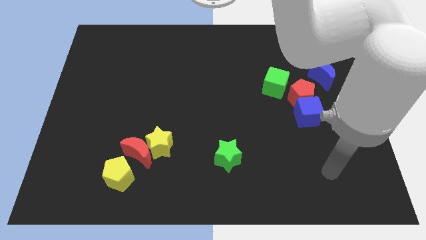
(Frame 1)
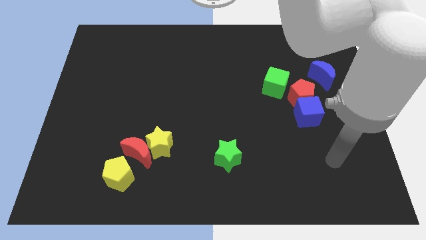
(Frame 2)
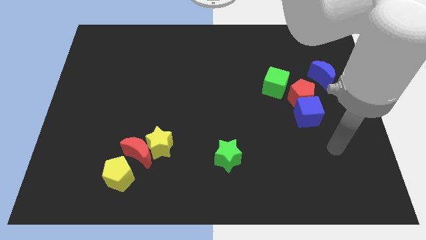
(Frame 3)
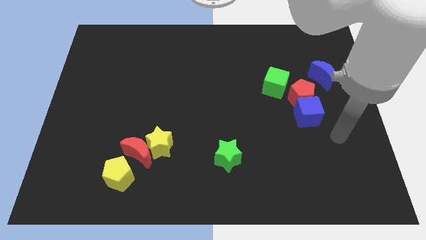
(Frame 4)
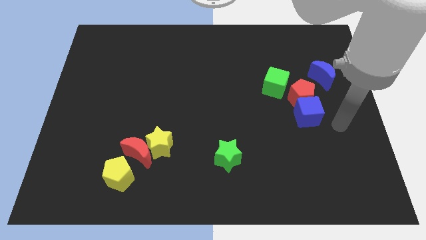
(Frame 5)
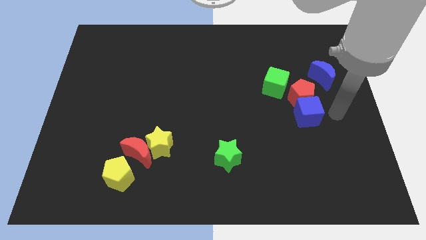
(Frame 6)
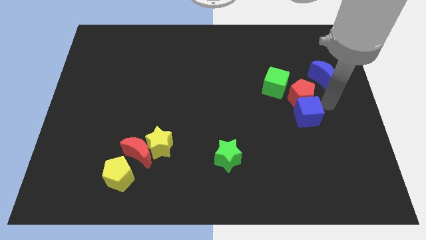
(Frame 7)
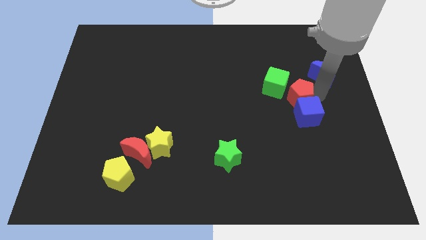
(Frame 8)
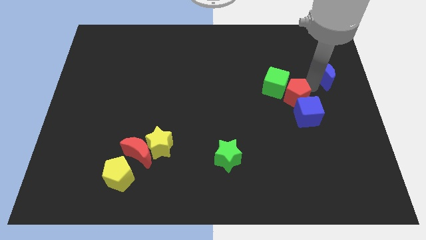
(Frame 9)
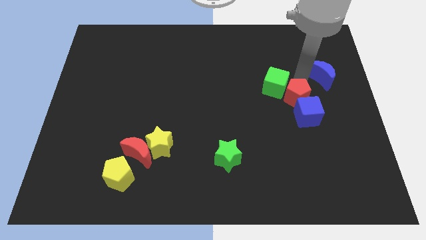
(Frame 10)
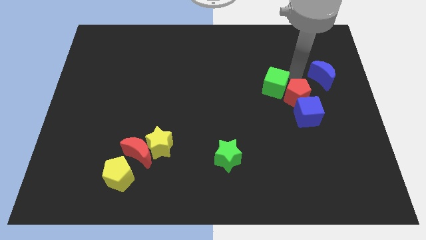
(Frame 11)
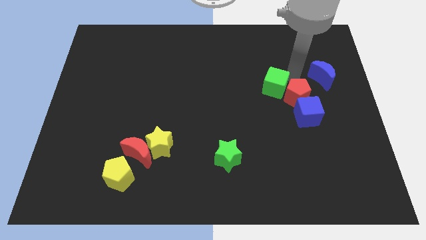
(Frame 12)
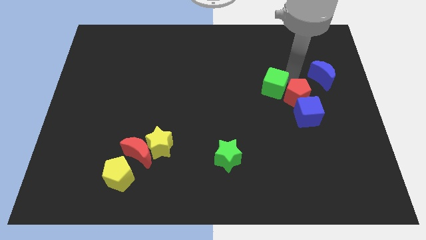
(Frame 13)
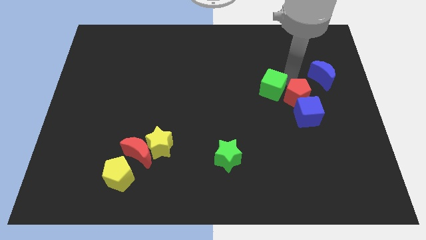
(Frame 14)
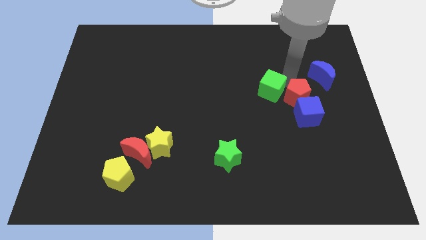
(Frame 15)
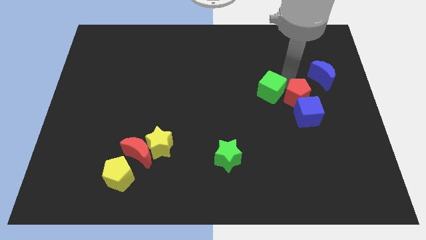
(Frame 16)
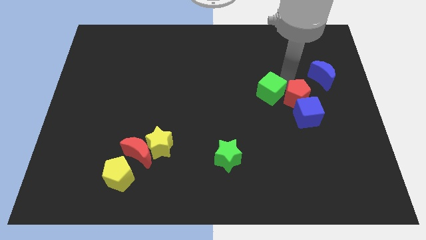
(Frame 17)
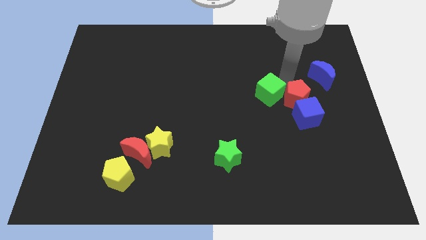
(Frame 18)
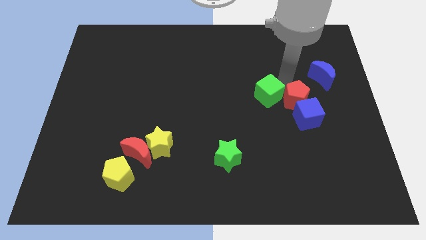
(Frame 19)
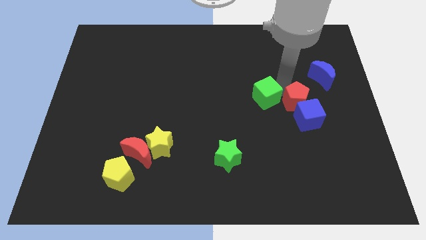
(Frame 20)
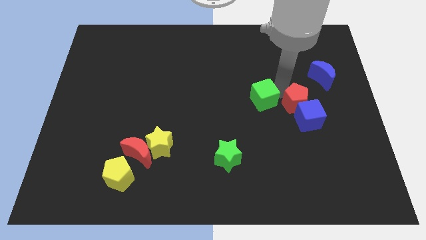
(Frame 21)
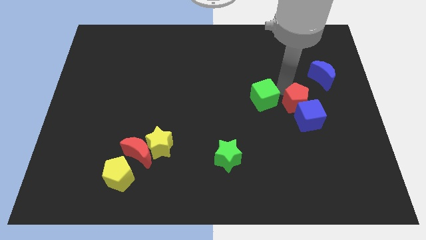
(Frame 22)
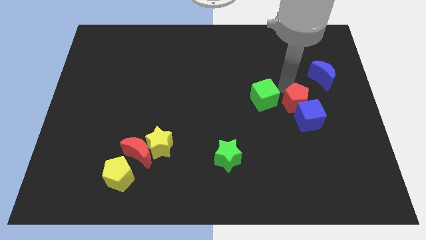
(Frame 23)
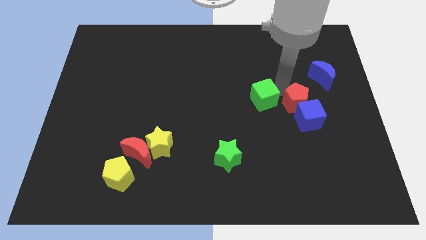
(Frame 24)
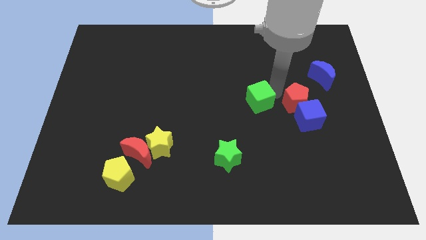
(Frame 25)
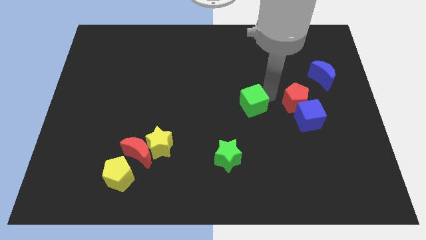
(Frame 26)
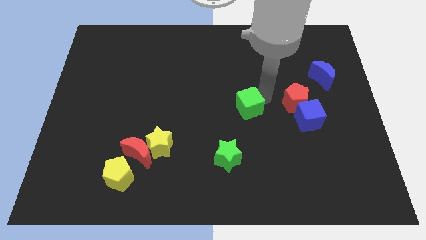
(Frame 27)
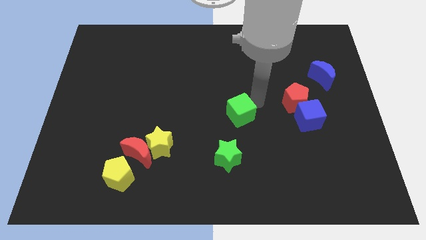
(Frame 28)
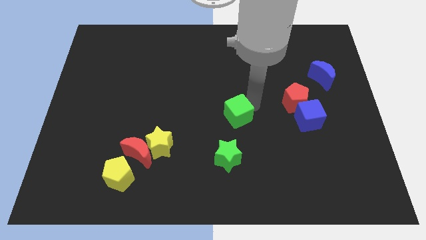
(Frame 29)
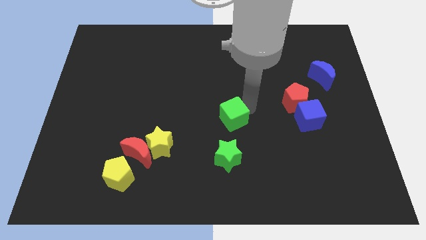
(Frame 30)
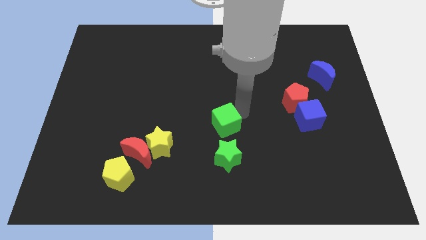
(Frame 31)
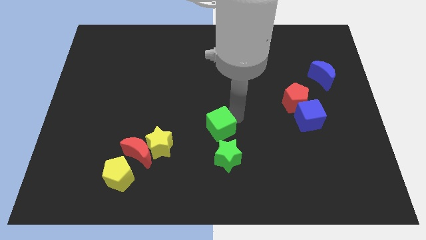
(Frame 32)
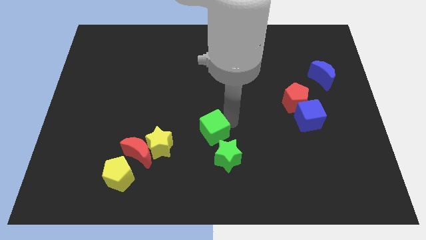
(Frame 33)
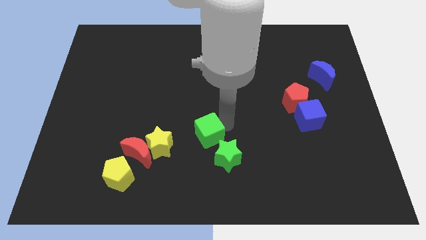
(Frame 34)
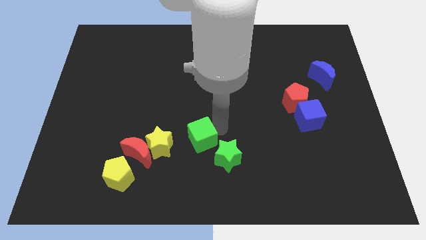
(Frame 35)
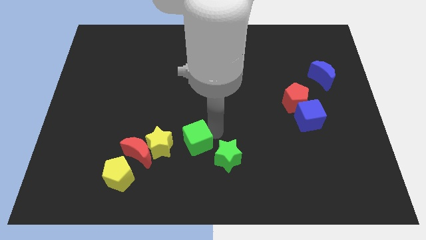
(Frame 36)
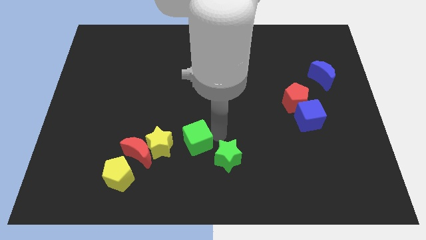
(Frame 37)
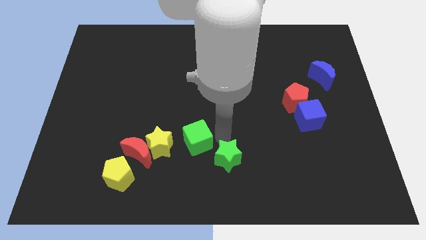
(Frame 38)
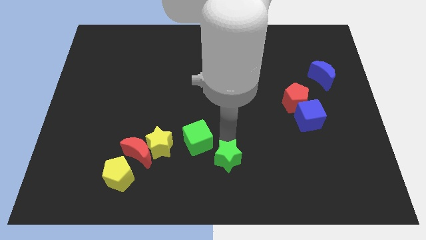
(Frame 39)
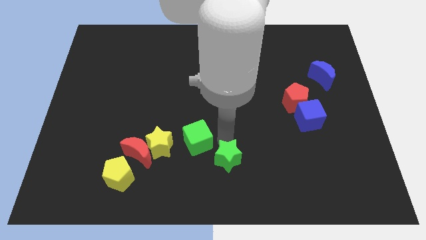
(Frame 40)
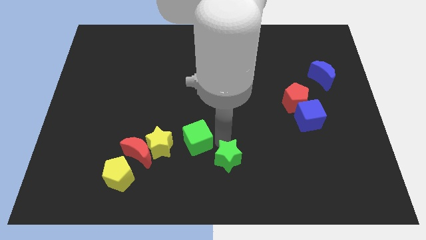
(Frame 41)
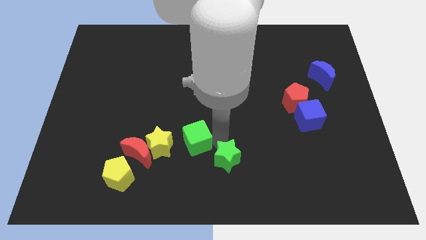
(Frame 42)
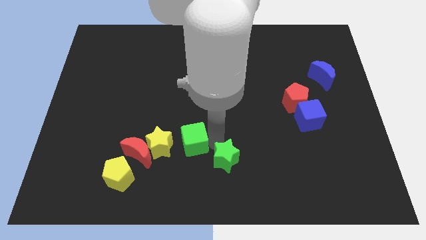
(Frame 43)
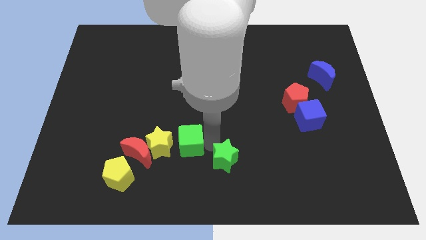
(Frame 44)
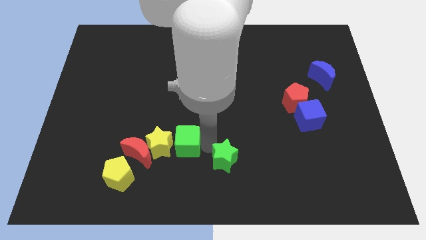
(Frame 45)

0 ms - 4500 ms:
push the green cube towards the yellow star

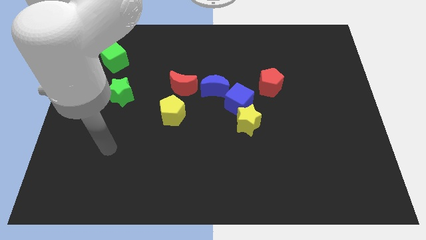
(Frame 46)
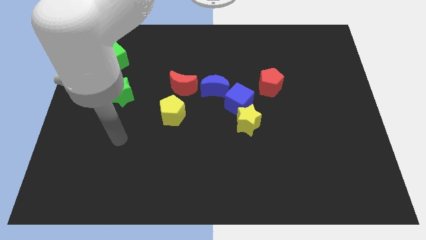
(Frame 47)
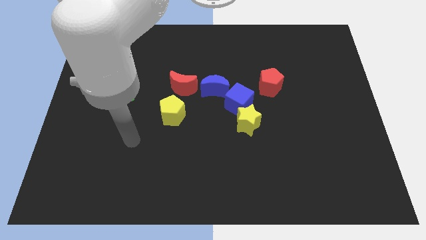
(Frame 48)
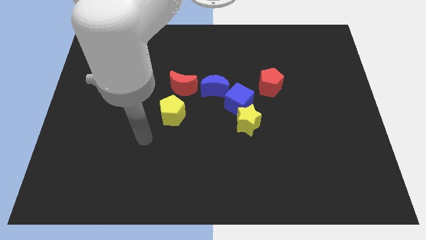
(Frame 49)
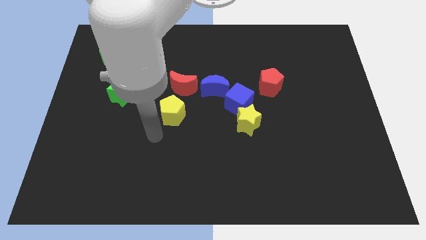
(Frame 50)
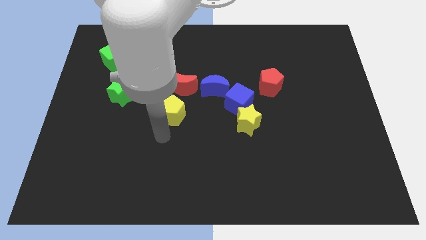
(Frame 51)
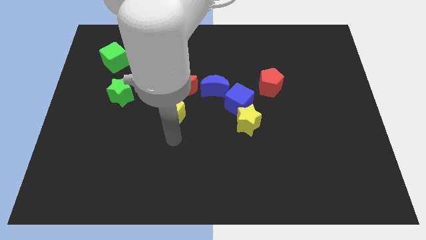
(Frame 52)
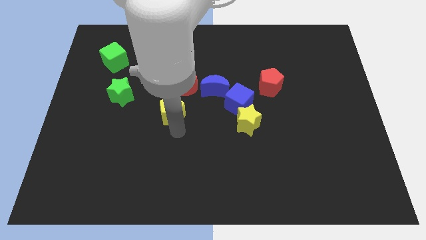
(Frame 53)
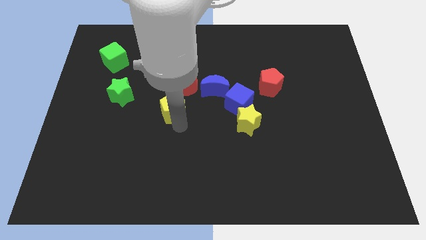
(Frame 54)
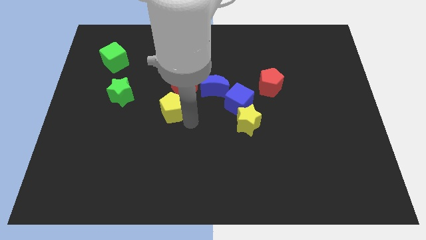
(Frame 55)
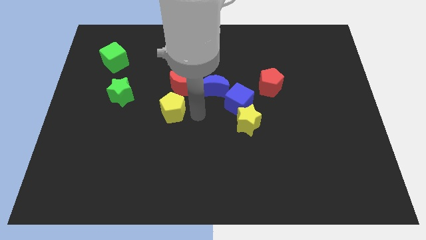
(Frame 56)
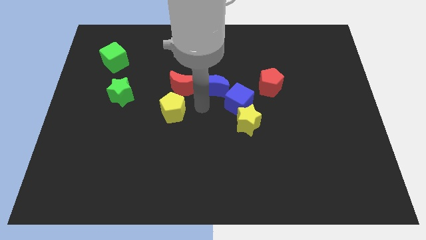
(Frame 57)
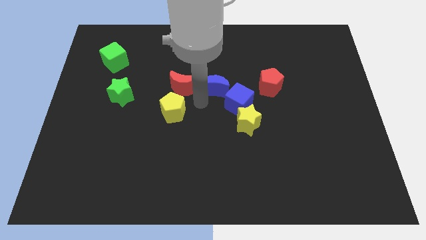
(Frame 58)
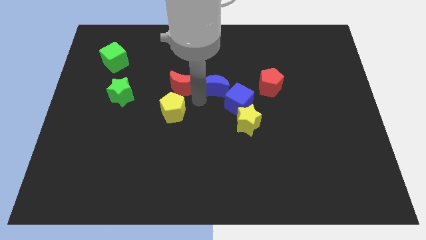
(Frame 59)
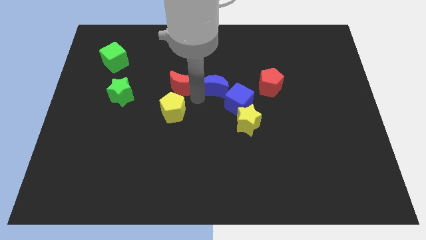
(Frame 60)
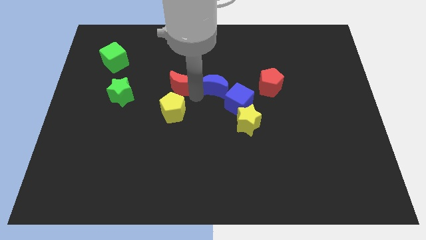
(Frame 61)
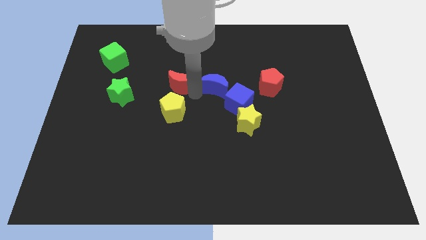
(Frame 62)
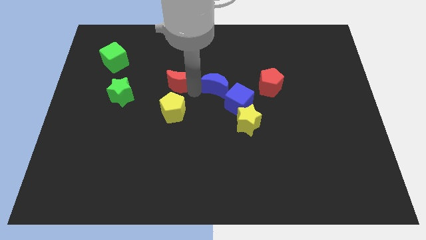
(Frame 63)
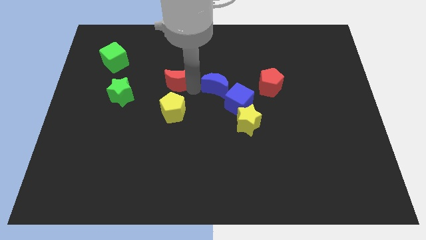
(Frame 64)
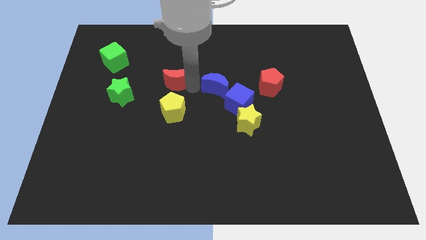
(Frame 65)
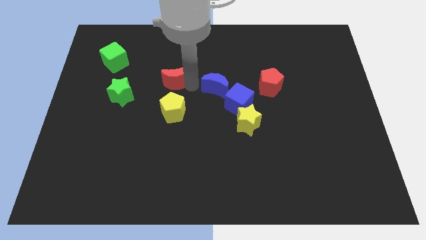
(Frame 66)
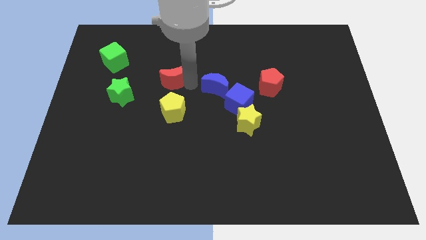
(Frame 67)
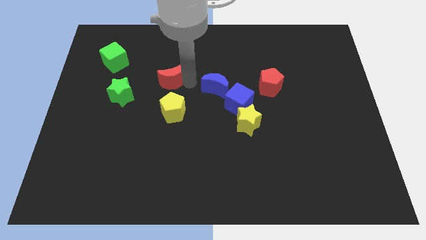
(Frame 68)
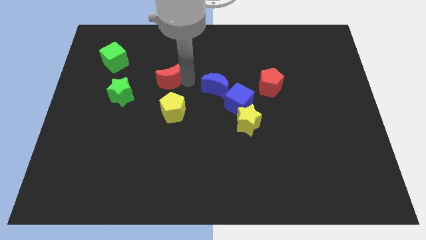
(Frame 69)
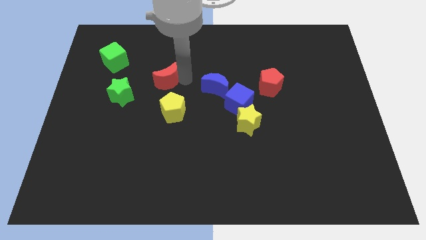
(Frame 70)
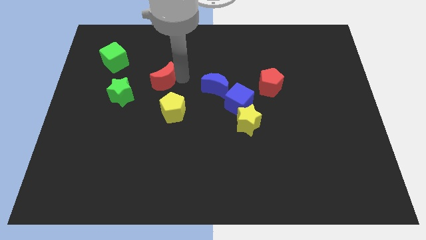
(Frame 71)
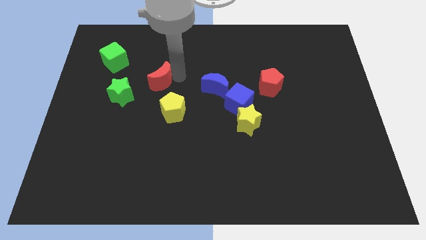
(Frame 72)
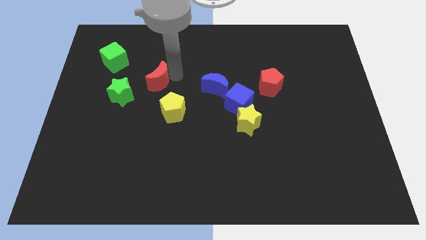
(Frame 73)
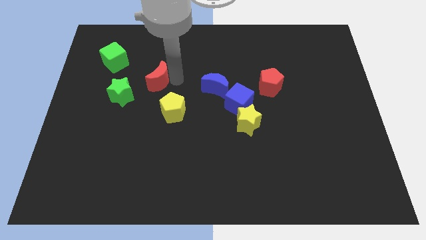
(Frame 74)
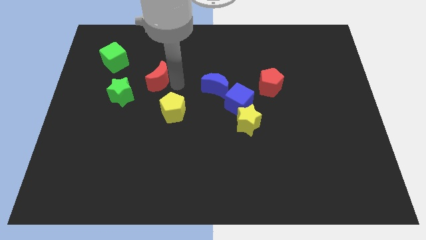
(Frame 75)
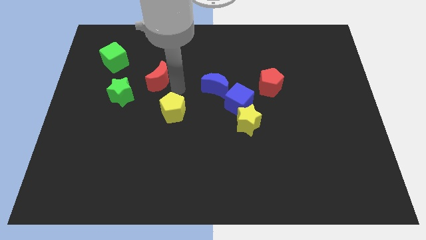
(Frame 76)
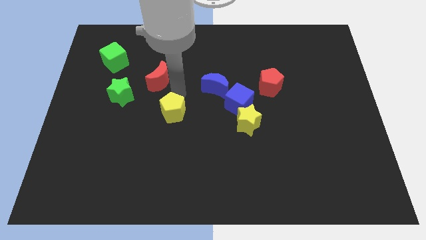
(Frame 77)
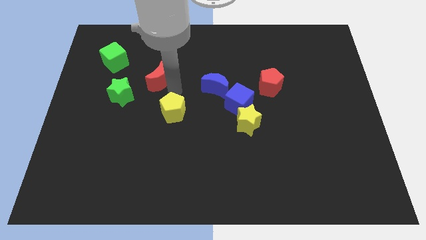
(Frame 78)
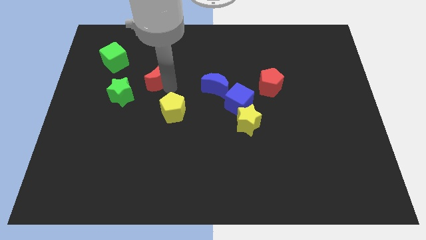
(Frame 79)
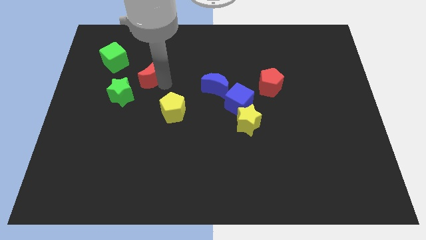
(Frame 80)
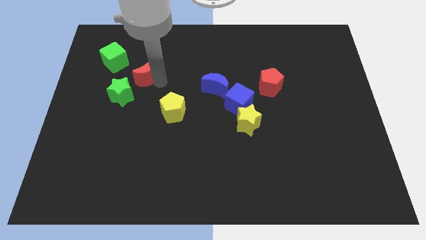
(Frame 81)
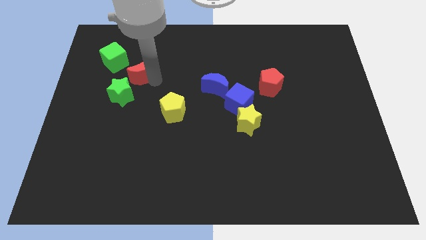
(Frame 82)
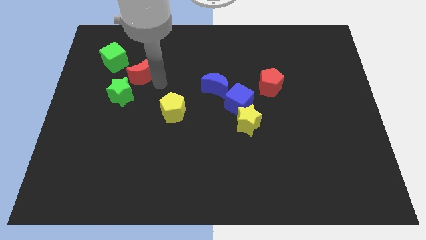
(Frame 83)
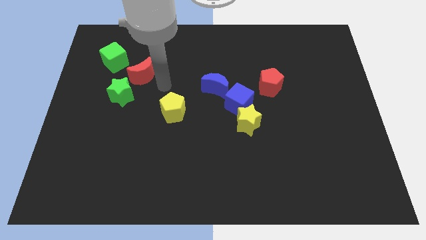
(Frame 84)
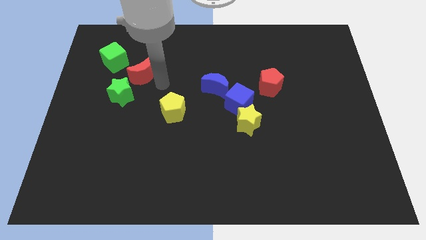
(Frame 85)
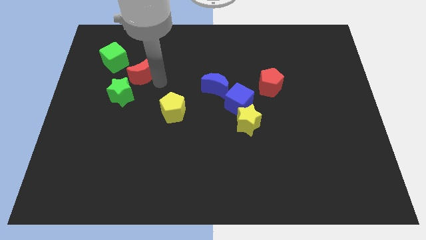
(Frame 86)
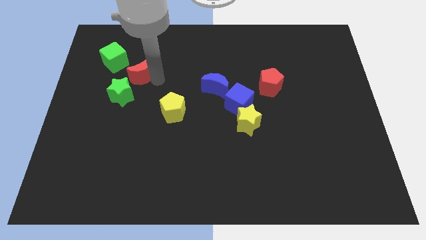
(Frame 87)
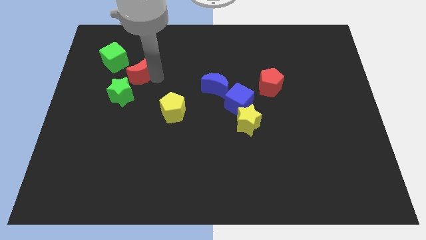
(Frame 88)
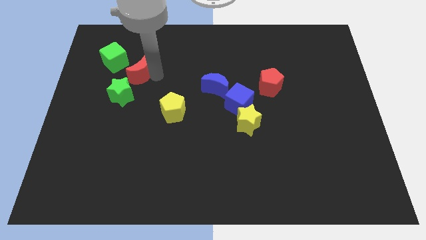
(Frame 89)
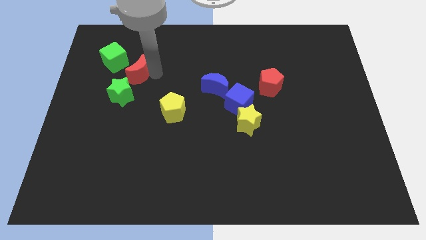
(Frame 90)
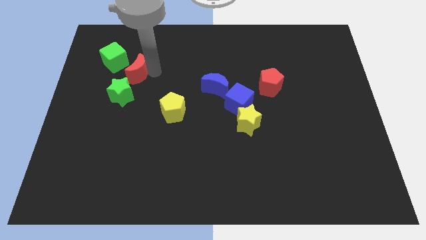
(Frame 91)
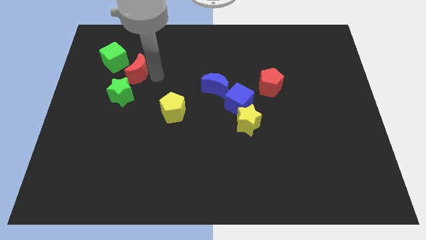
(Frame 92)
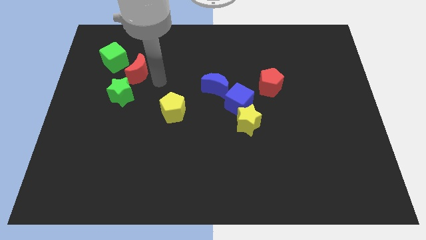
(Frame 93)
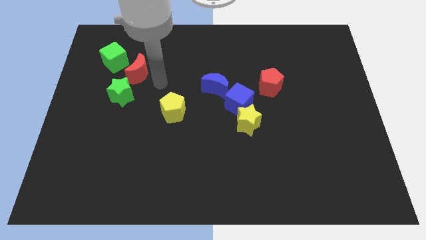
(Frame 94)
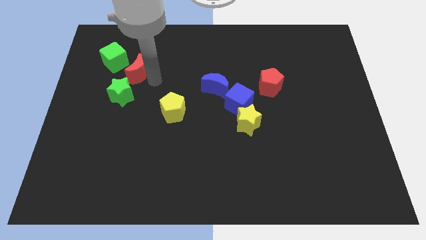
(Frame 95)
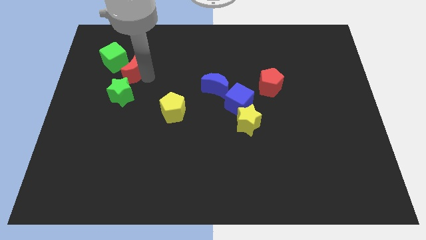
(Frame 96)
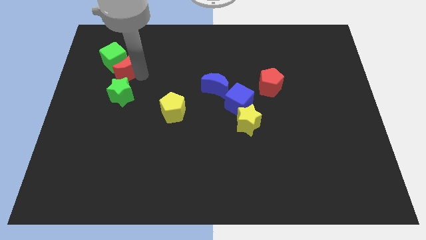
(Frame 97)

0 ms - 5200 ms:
push the red moon close to the green cube
